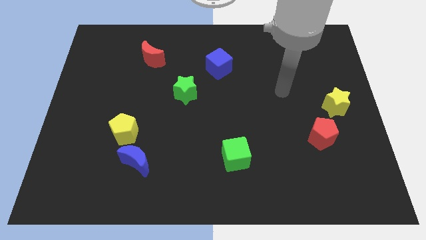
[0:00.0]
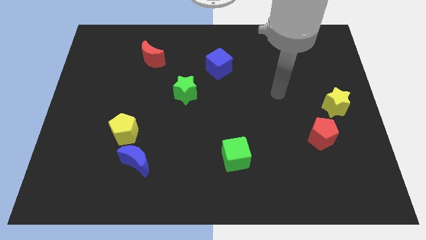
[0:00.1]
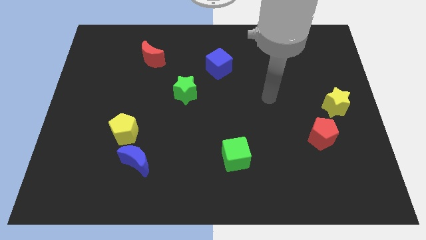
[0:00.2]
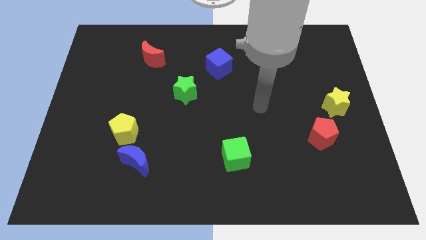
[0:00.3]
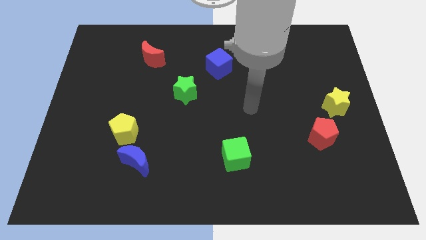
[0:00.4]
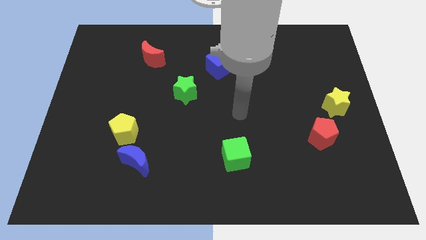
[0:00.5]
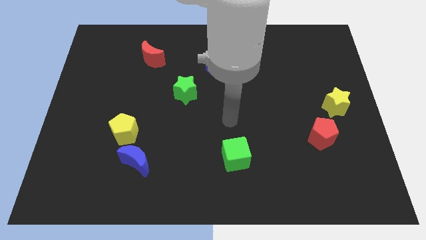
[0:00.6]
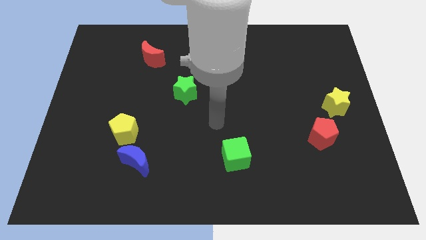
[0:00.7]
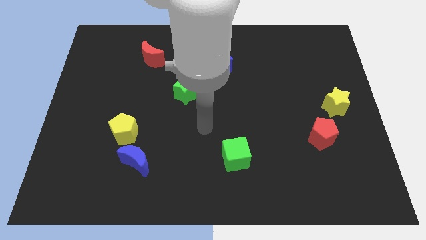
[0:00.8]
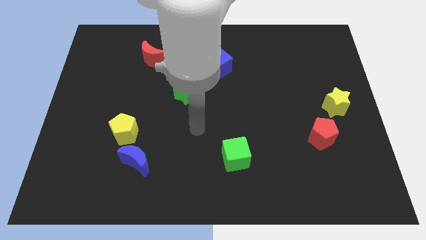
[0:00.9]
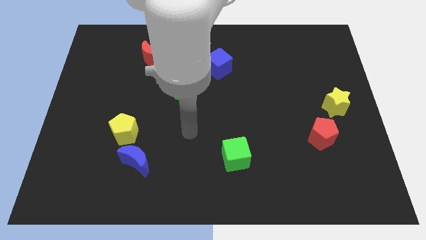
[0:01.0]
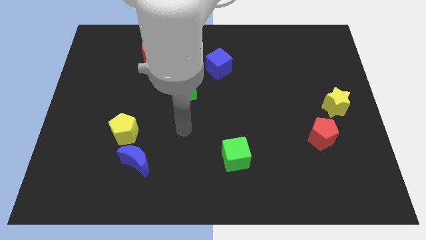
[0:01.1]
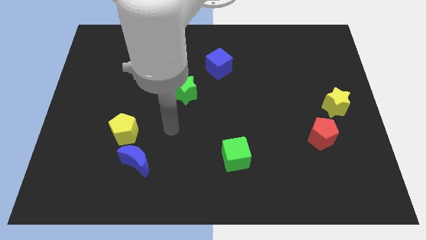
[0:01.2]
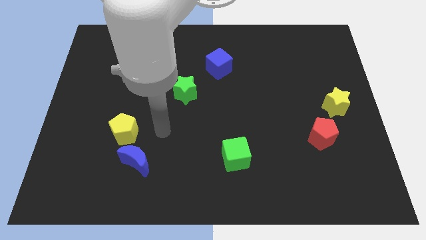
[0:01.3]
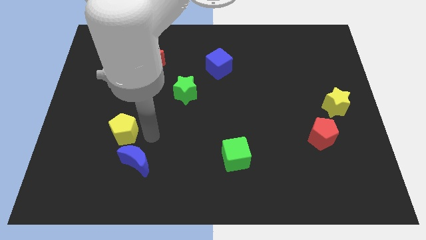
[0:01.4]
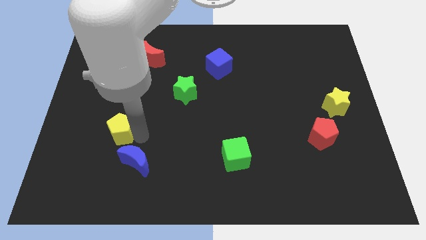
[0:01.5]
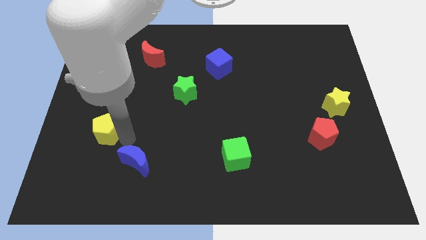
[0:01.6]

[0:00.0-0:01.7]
pull the blue moon apart from the yellow pentagon

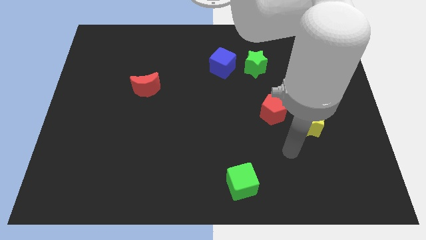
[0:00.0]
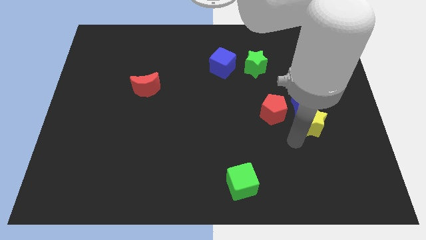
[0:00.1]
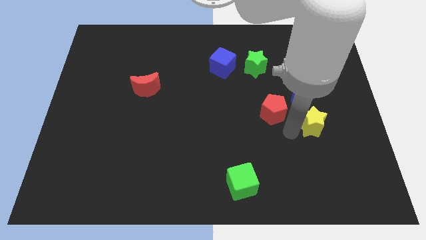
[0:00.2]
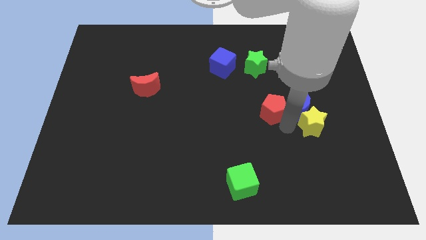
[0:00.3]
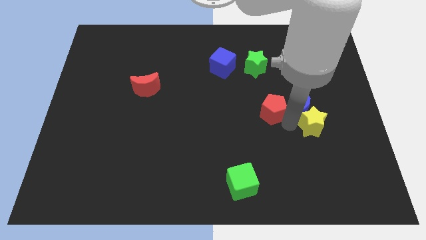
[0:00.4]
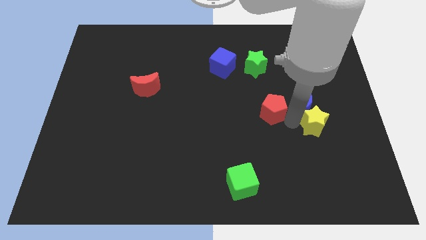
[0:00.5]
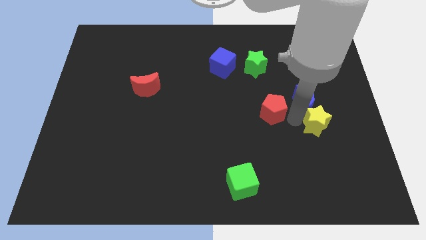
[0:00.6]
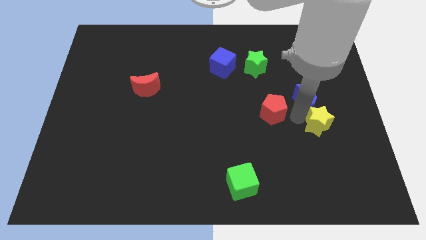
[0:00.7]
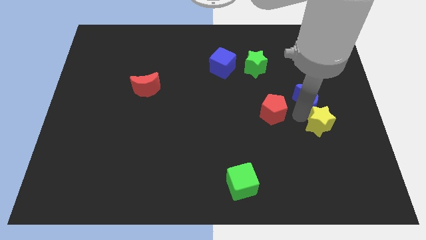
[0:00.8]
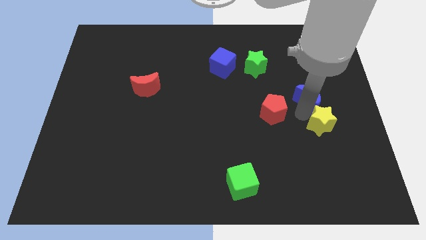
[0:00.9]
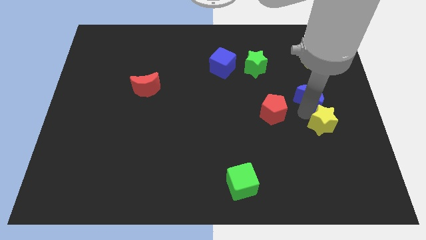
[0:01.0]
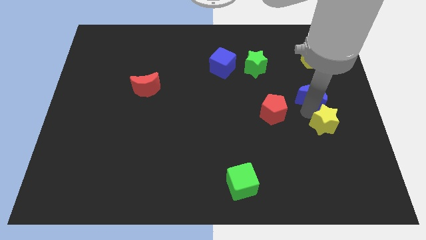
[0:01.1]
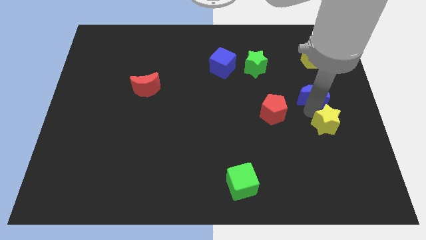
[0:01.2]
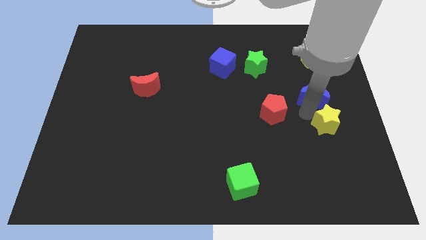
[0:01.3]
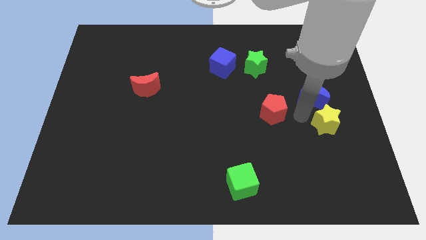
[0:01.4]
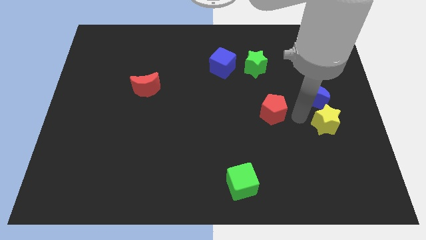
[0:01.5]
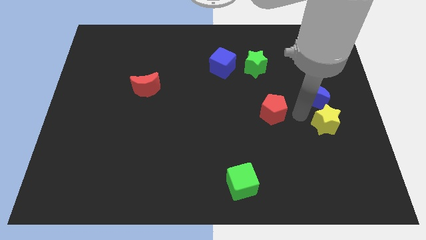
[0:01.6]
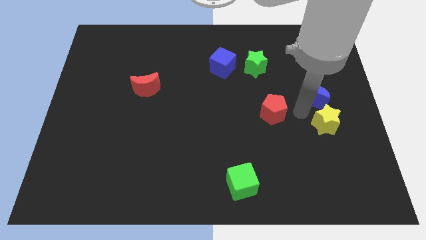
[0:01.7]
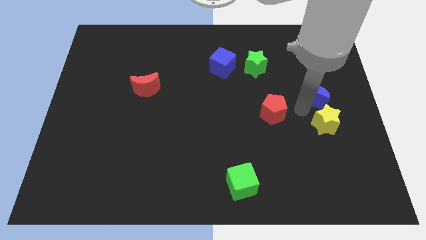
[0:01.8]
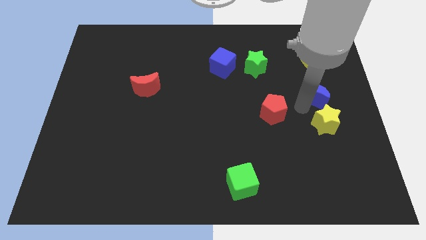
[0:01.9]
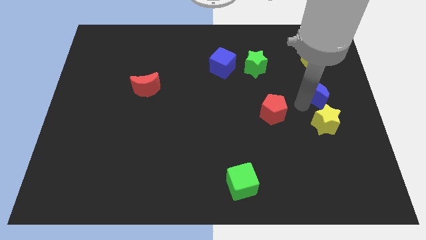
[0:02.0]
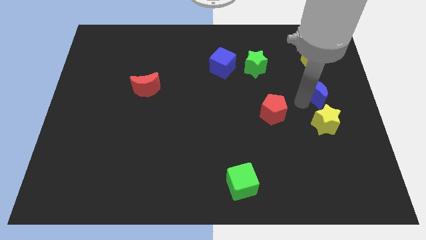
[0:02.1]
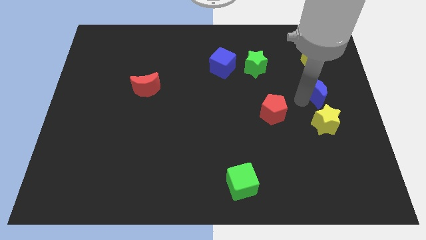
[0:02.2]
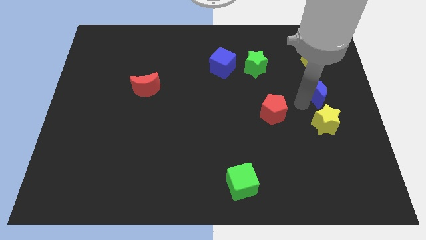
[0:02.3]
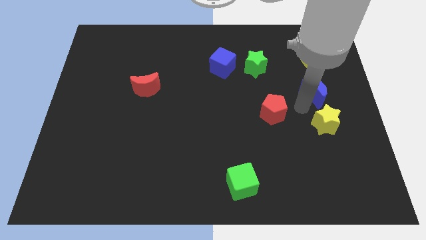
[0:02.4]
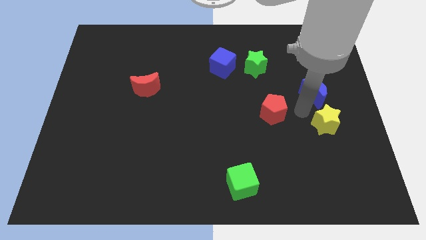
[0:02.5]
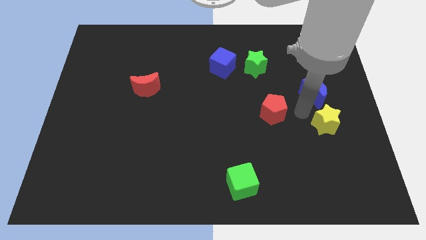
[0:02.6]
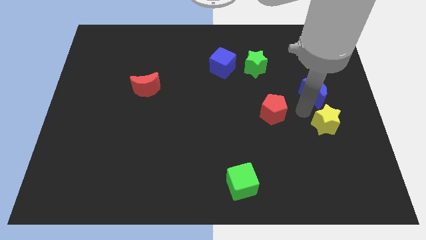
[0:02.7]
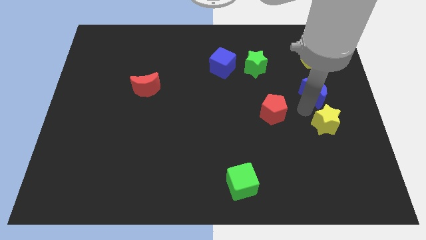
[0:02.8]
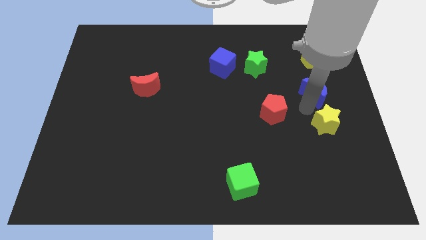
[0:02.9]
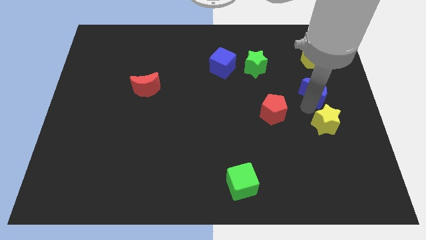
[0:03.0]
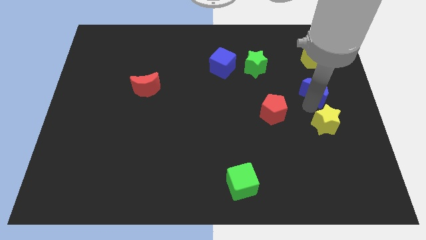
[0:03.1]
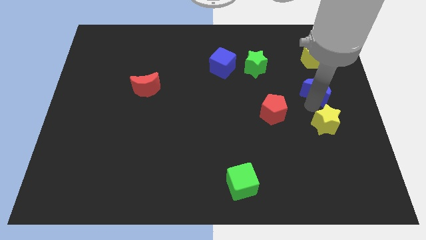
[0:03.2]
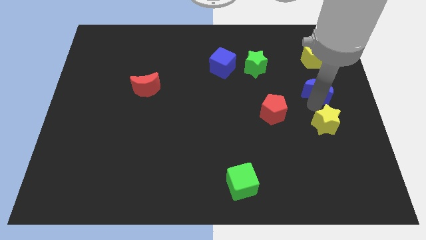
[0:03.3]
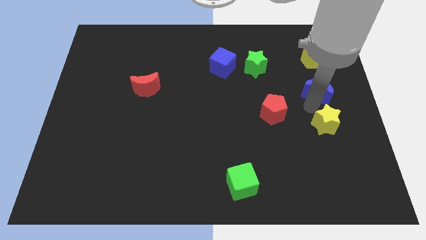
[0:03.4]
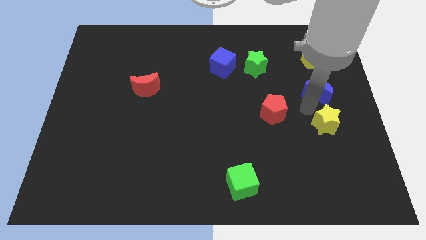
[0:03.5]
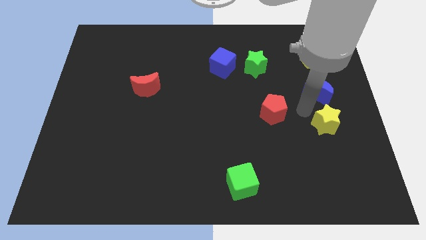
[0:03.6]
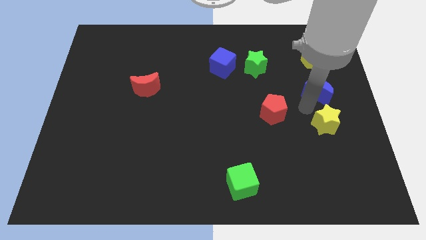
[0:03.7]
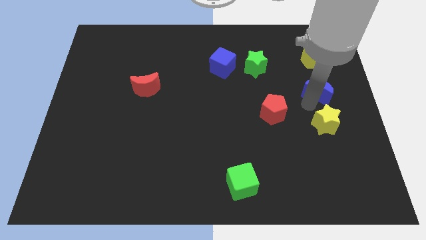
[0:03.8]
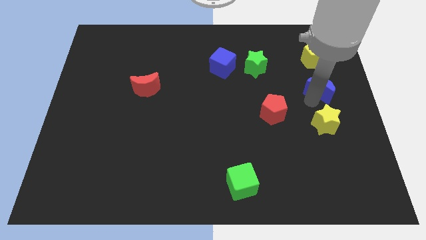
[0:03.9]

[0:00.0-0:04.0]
separate the blue moon from the yellow star and red pentagon

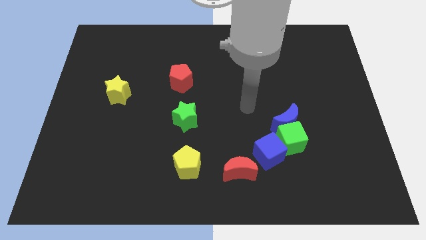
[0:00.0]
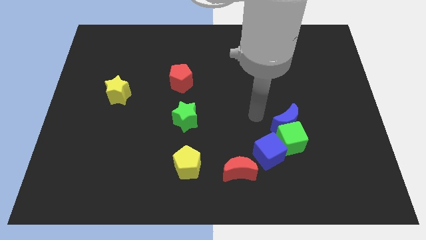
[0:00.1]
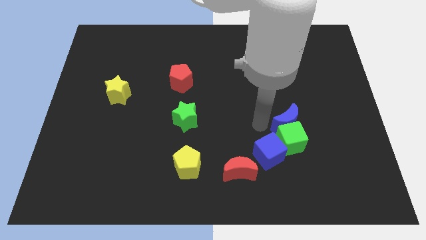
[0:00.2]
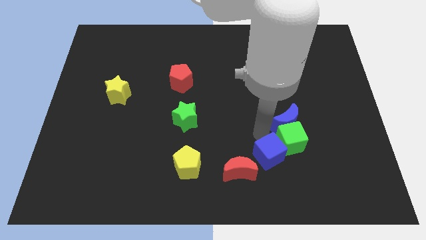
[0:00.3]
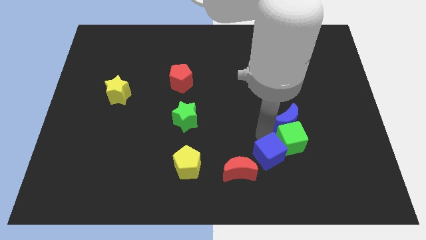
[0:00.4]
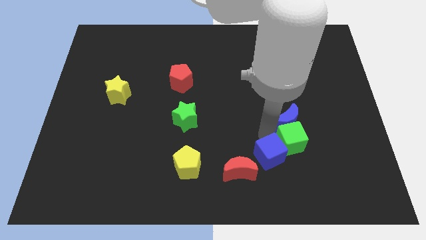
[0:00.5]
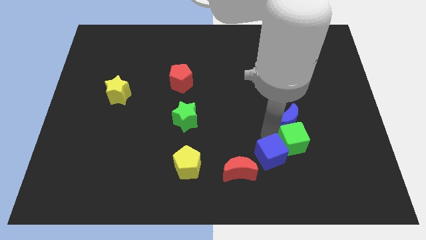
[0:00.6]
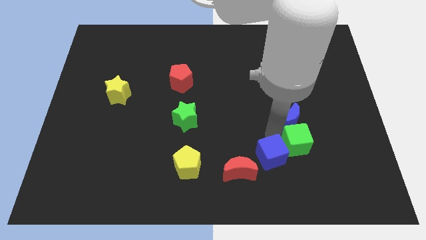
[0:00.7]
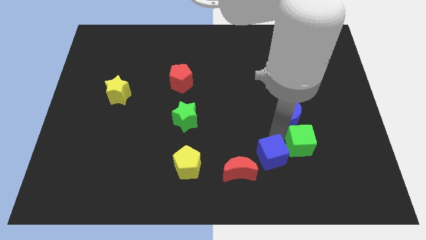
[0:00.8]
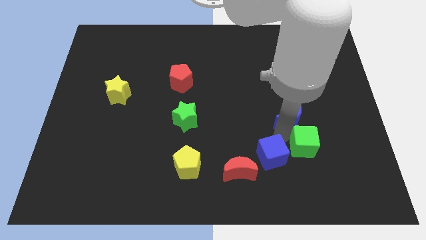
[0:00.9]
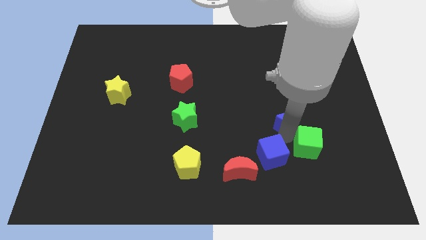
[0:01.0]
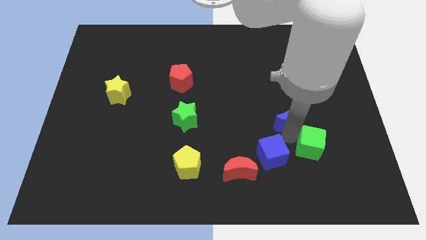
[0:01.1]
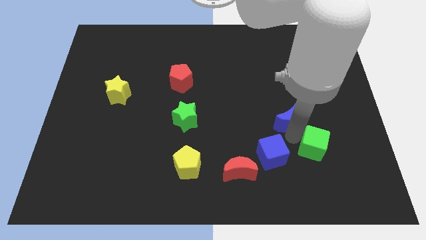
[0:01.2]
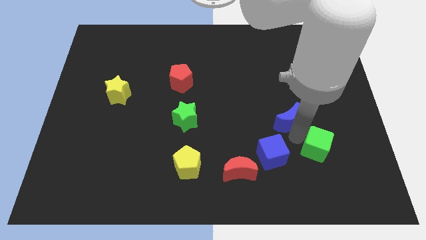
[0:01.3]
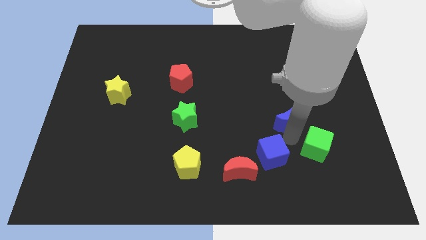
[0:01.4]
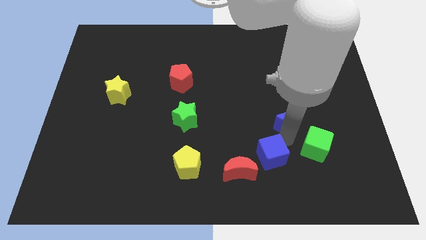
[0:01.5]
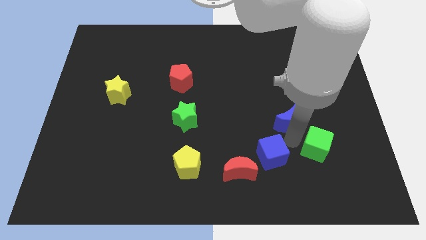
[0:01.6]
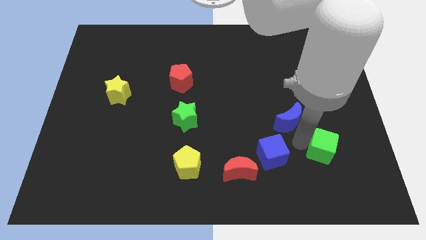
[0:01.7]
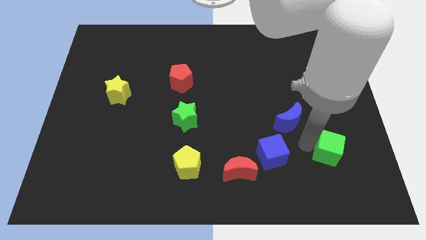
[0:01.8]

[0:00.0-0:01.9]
move the green cube away from the blue moon and blue cube

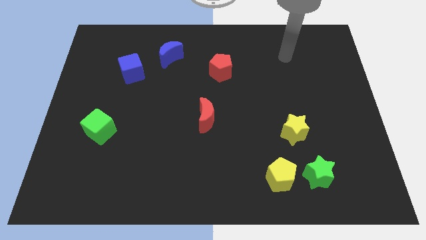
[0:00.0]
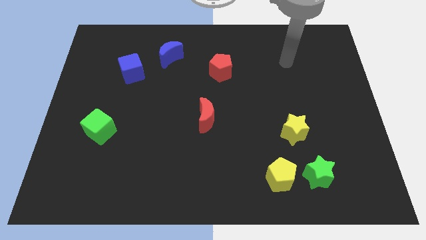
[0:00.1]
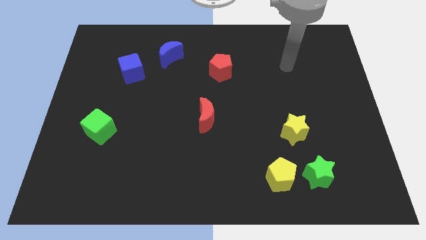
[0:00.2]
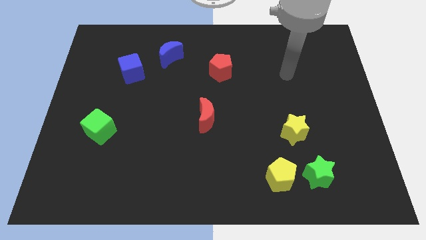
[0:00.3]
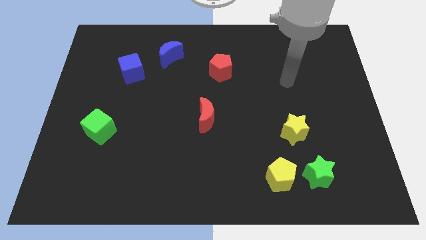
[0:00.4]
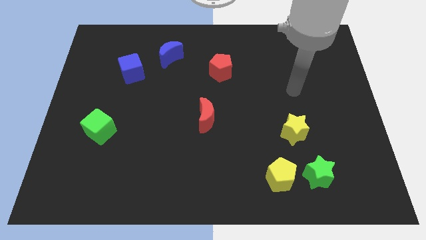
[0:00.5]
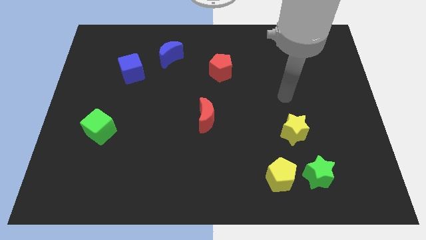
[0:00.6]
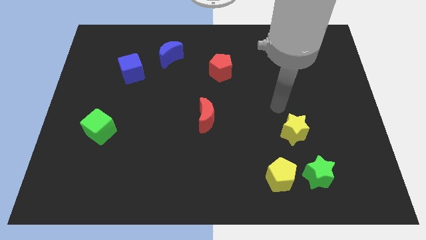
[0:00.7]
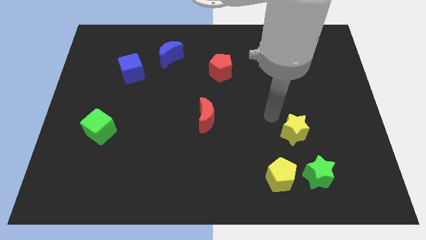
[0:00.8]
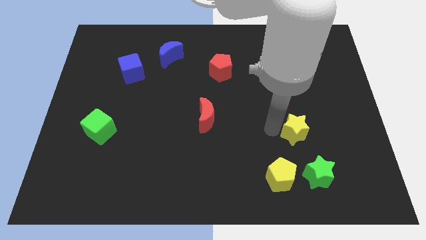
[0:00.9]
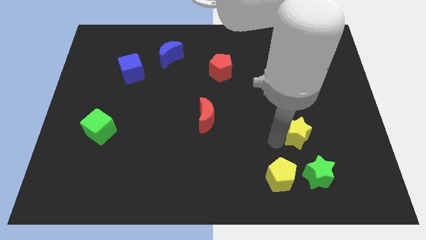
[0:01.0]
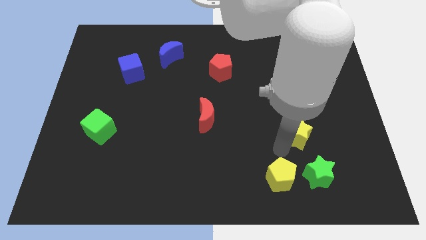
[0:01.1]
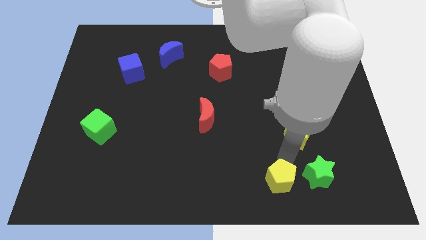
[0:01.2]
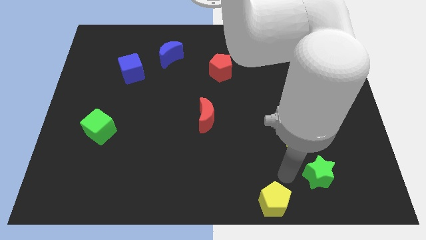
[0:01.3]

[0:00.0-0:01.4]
move the green star away from the yellow pentagon

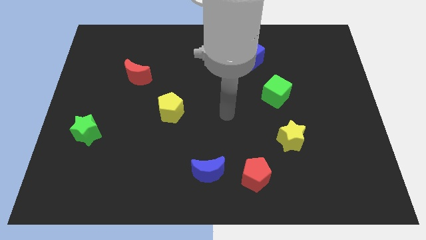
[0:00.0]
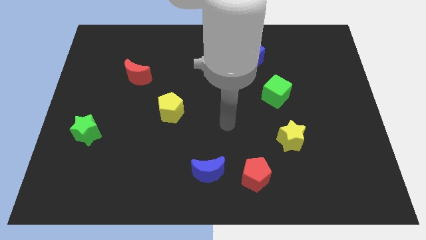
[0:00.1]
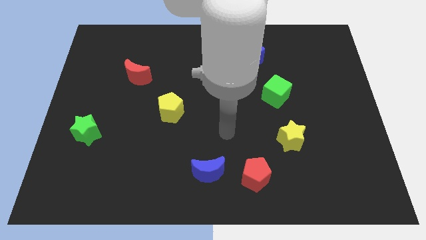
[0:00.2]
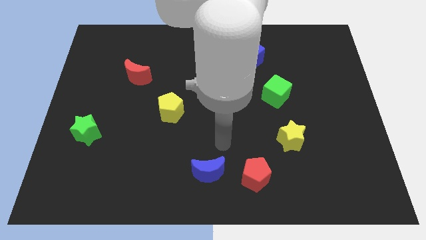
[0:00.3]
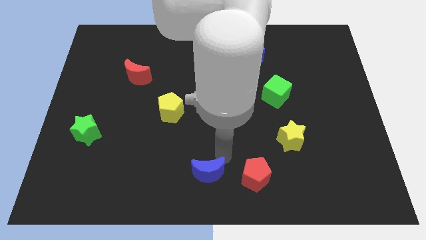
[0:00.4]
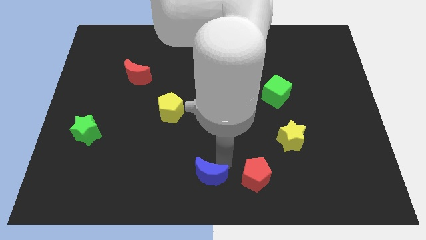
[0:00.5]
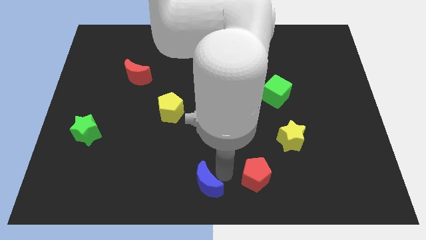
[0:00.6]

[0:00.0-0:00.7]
pull the red pentagon apart from the blue moon
